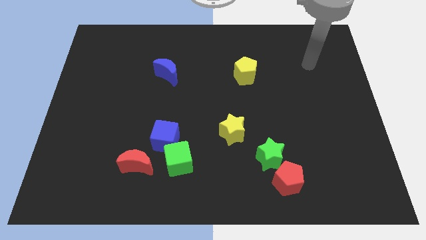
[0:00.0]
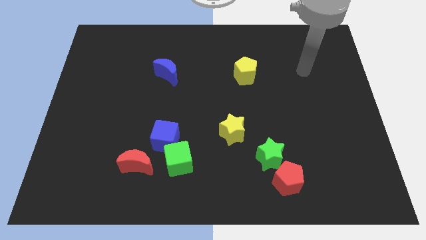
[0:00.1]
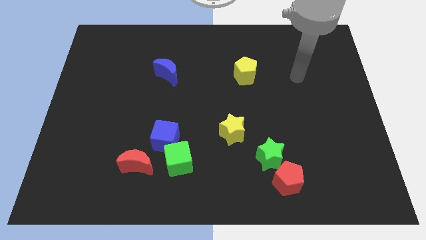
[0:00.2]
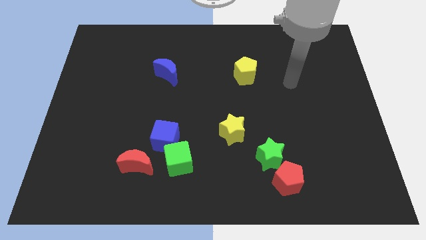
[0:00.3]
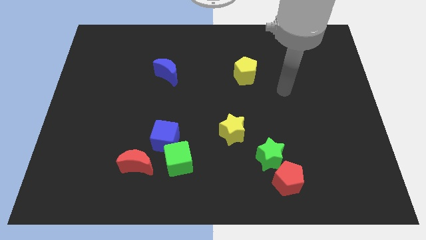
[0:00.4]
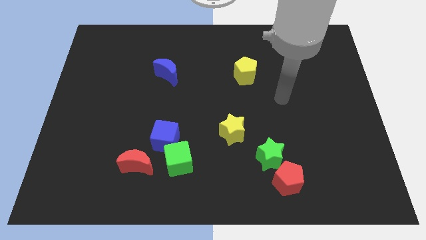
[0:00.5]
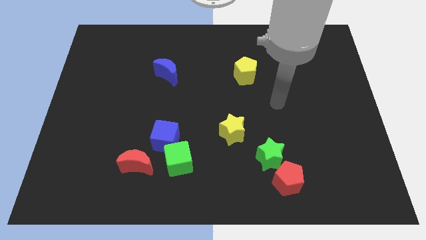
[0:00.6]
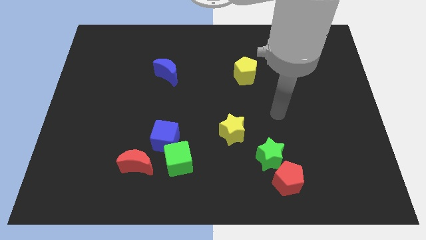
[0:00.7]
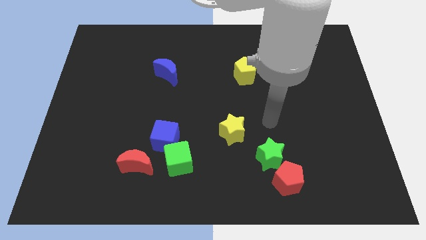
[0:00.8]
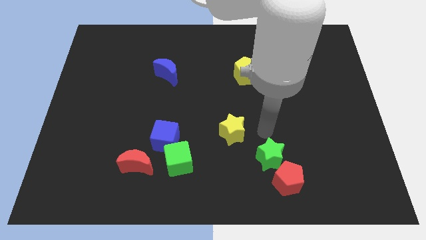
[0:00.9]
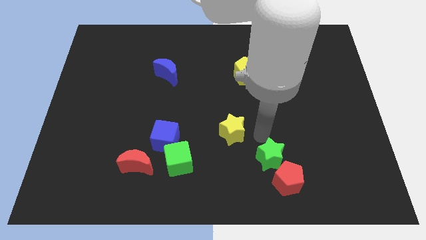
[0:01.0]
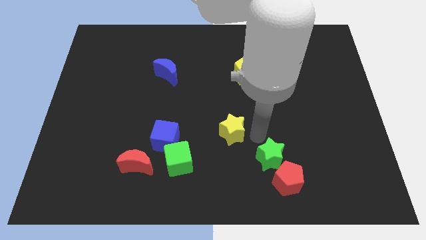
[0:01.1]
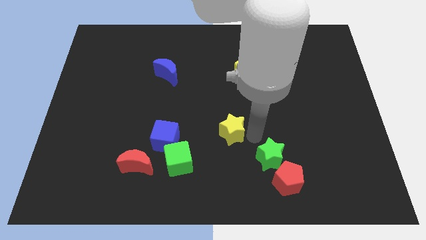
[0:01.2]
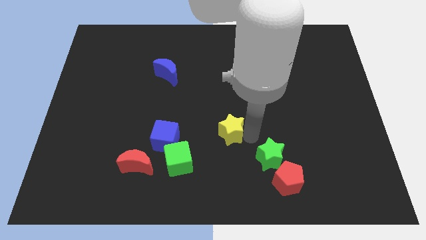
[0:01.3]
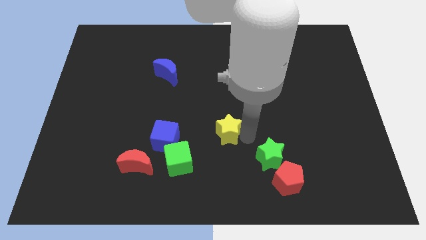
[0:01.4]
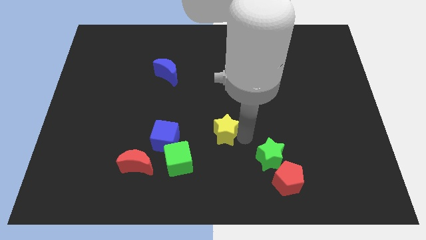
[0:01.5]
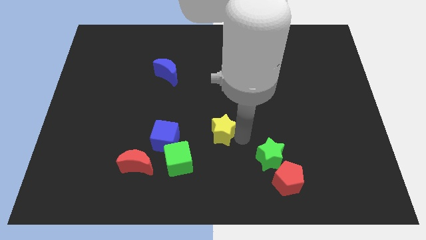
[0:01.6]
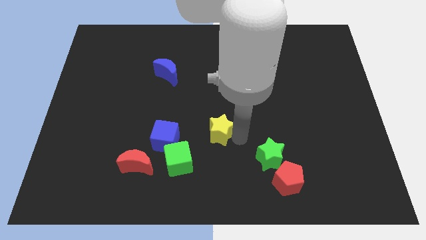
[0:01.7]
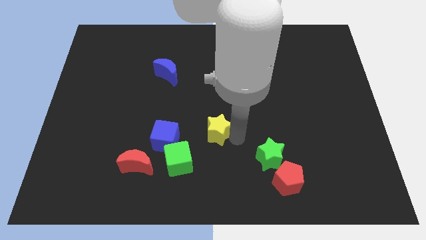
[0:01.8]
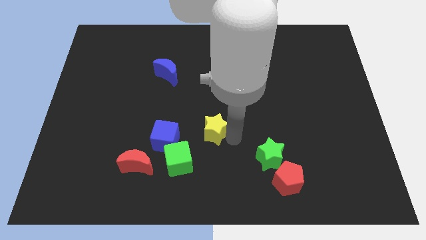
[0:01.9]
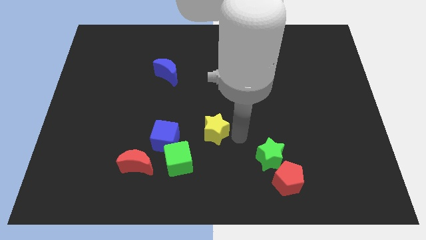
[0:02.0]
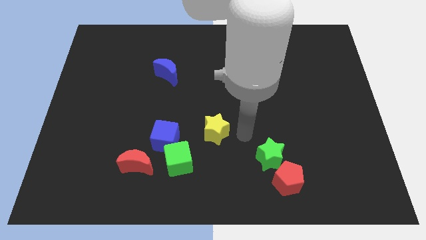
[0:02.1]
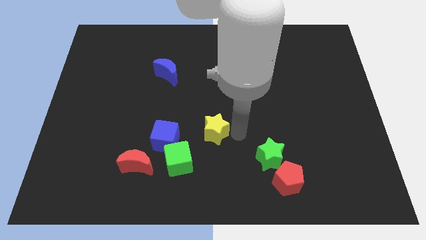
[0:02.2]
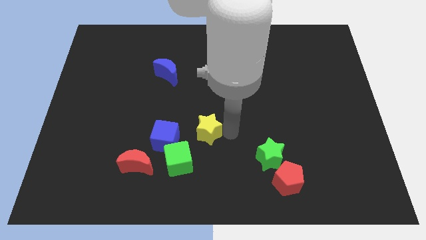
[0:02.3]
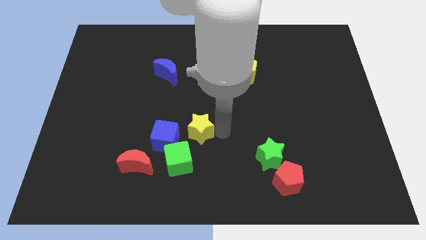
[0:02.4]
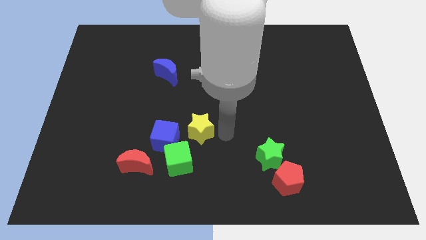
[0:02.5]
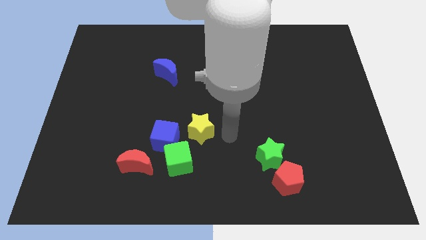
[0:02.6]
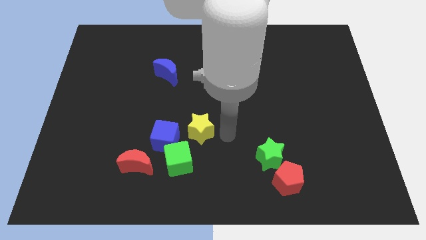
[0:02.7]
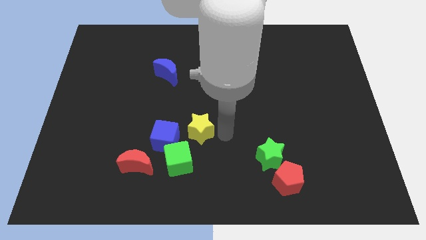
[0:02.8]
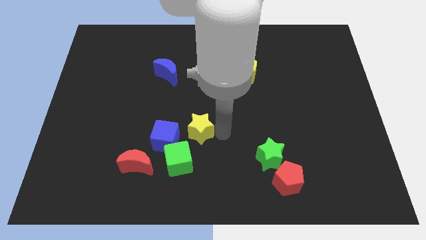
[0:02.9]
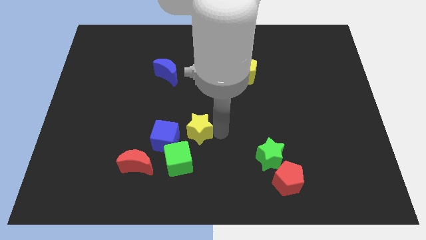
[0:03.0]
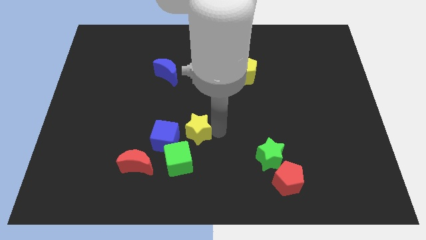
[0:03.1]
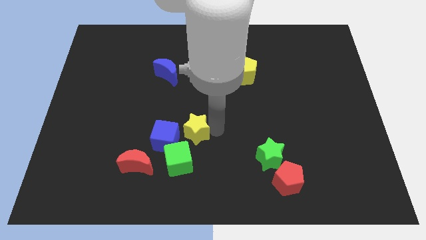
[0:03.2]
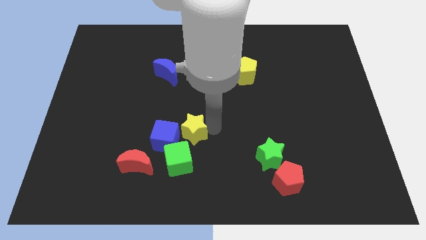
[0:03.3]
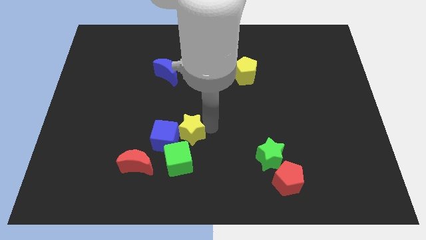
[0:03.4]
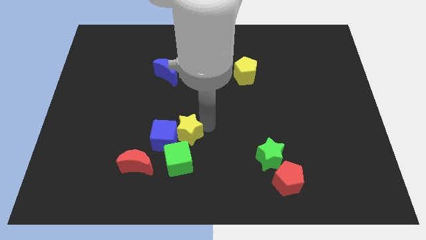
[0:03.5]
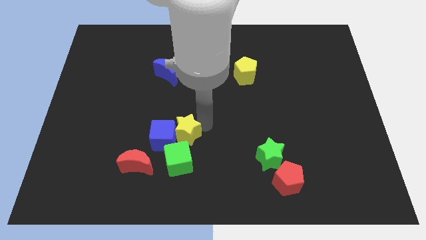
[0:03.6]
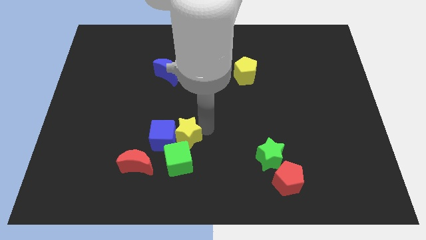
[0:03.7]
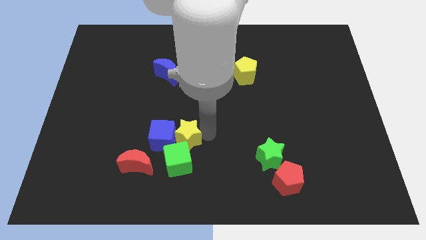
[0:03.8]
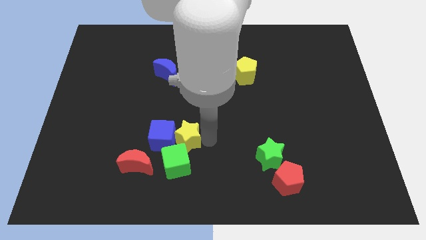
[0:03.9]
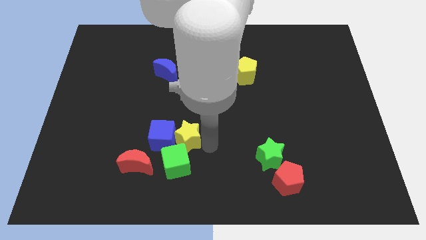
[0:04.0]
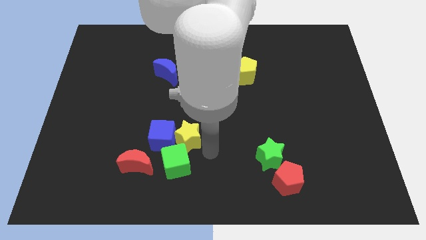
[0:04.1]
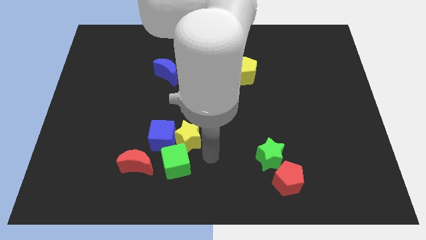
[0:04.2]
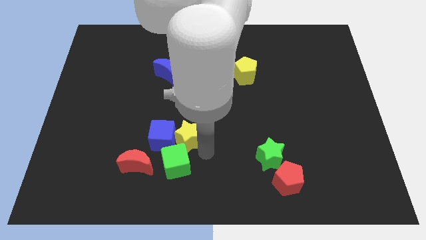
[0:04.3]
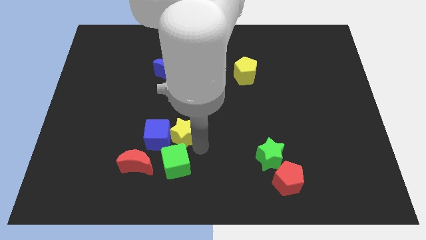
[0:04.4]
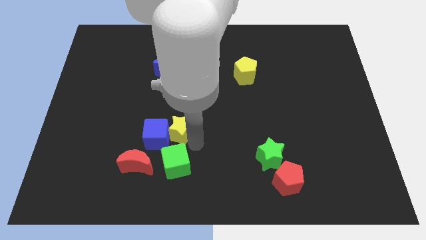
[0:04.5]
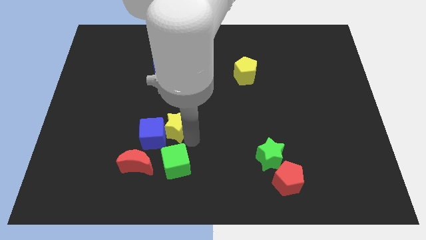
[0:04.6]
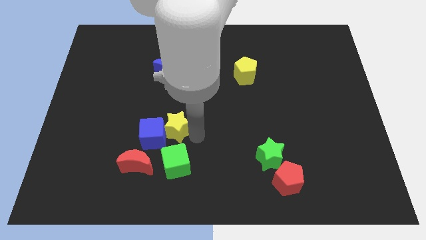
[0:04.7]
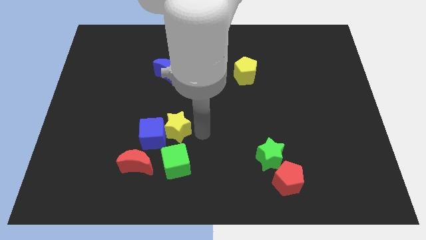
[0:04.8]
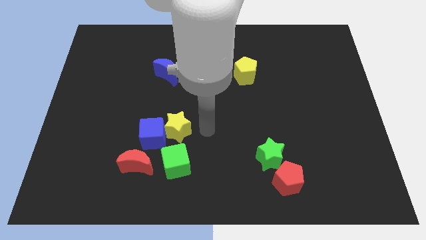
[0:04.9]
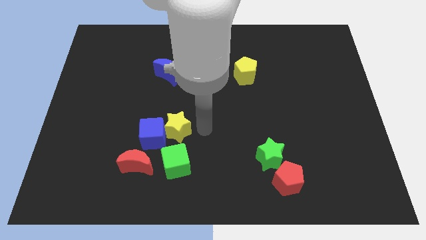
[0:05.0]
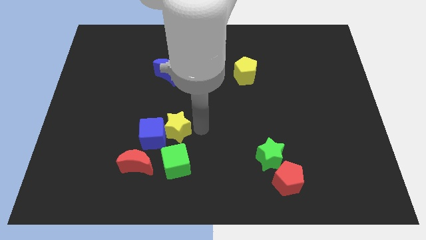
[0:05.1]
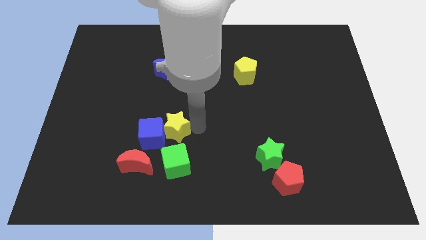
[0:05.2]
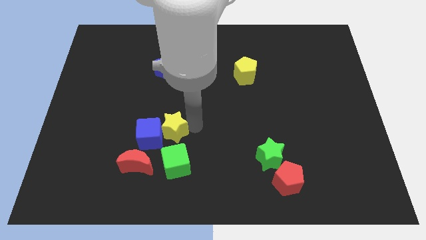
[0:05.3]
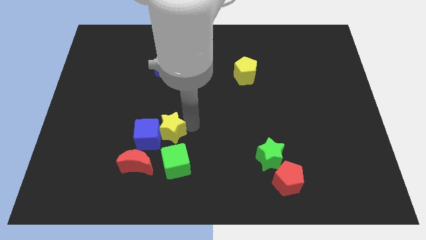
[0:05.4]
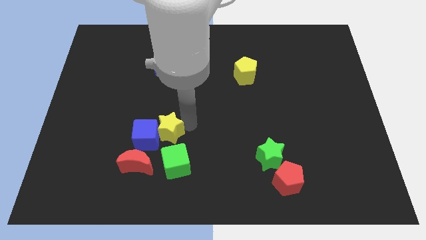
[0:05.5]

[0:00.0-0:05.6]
push the yellow star to the top left side of the green cube

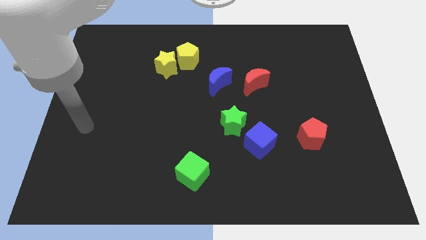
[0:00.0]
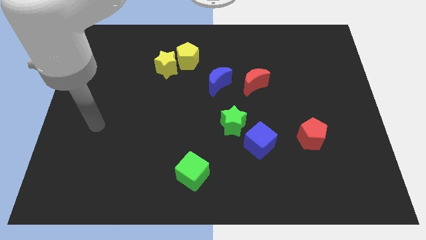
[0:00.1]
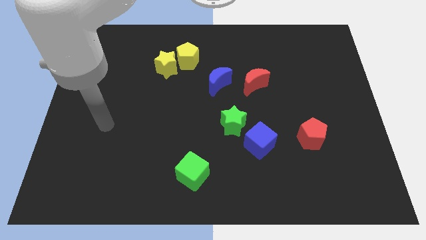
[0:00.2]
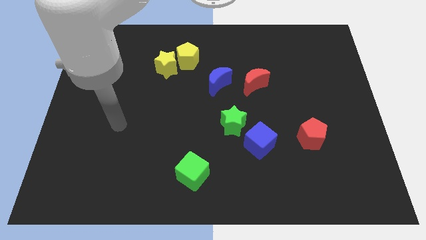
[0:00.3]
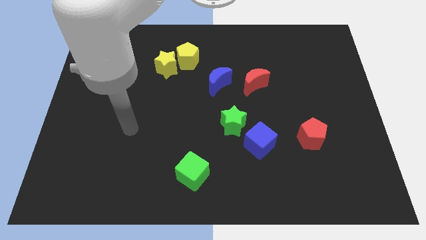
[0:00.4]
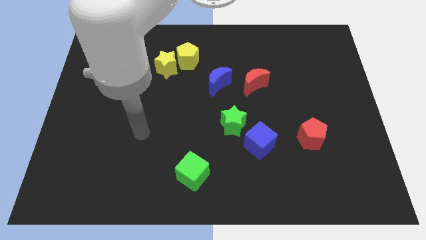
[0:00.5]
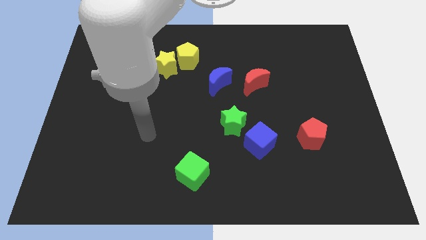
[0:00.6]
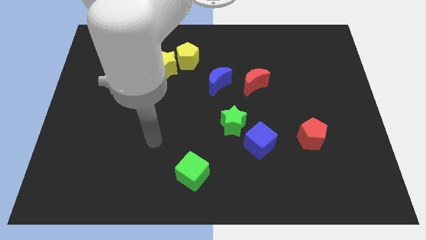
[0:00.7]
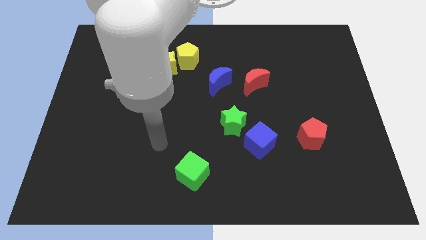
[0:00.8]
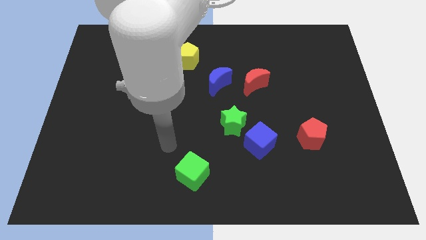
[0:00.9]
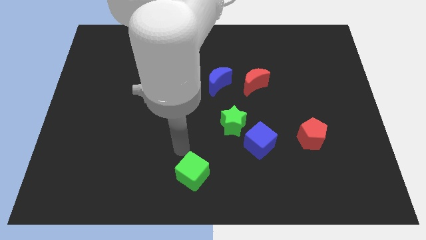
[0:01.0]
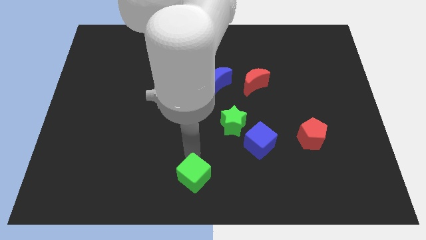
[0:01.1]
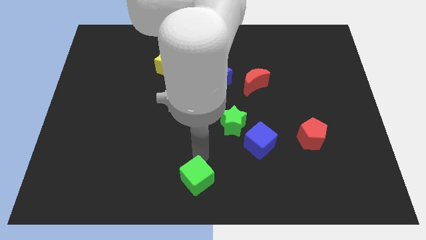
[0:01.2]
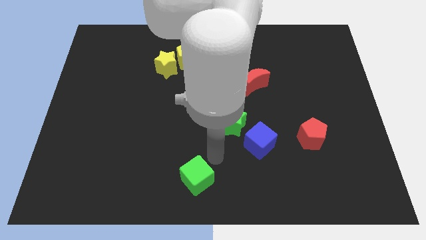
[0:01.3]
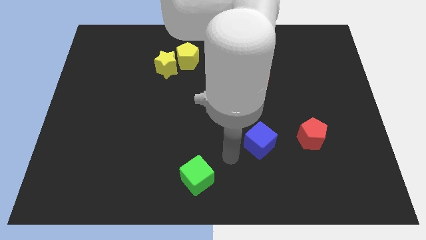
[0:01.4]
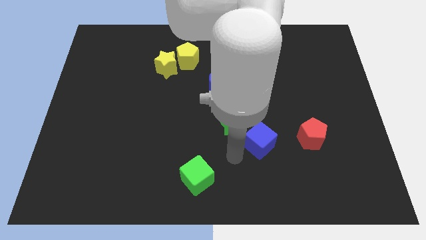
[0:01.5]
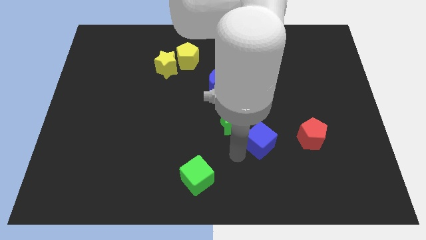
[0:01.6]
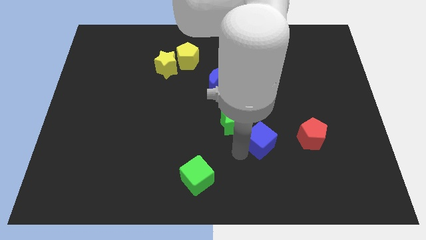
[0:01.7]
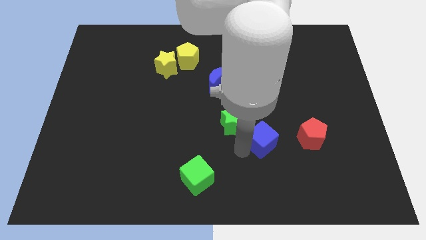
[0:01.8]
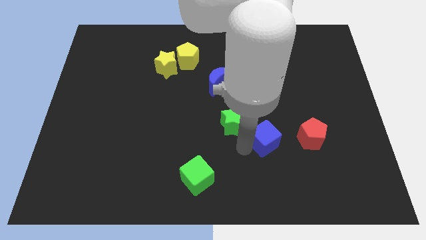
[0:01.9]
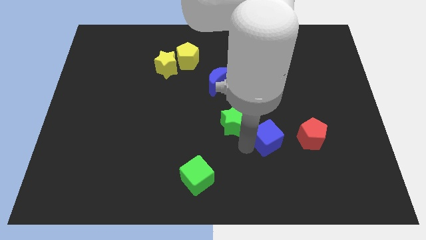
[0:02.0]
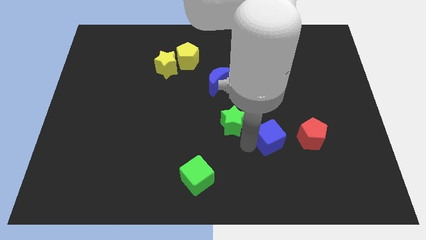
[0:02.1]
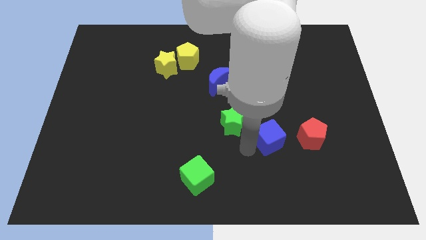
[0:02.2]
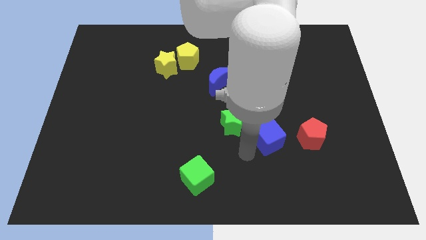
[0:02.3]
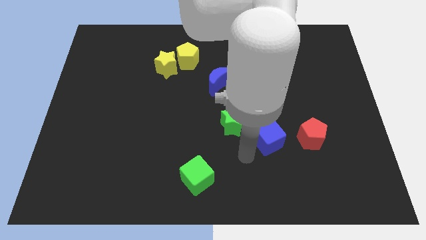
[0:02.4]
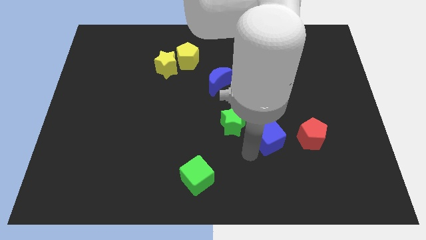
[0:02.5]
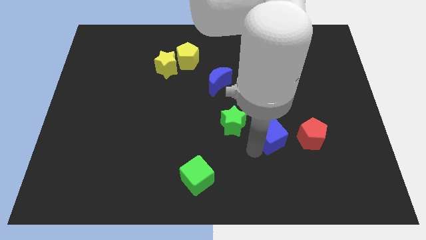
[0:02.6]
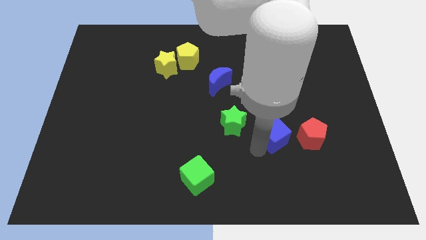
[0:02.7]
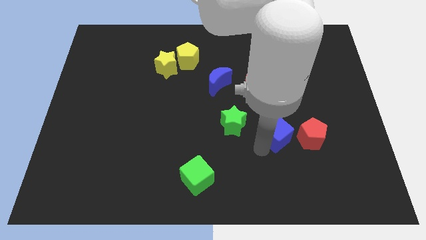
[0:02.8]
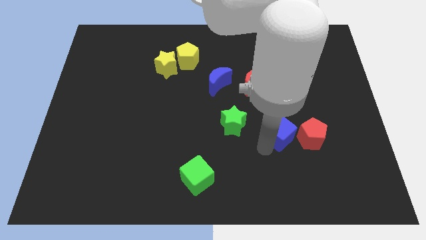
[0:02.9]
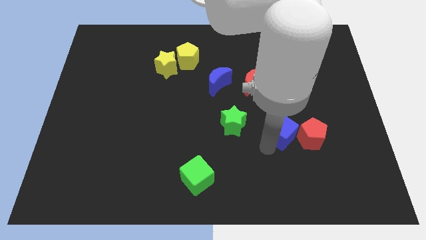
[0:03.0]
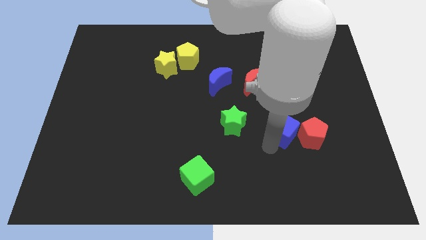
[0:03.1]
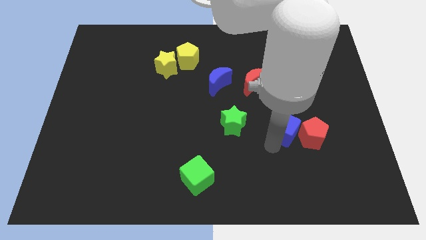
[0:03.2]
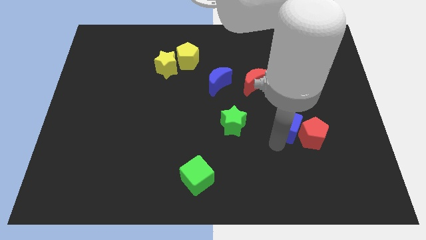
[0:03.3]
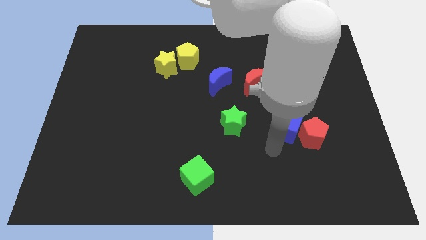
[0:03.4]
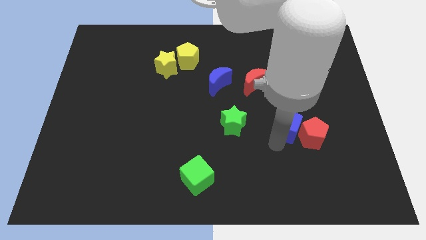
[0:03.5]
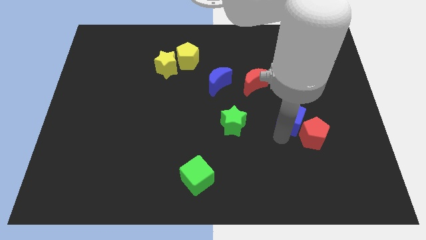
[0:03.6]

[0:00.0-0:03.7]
put the blue cube above the red pentagon
